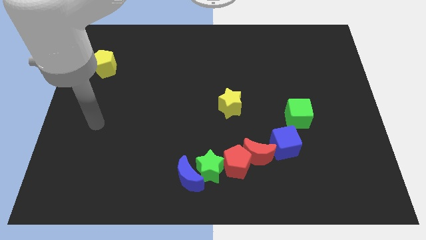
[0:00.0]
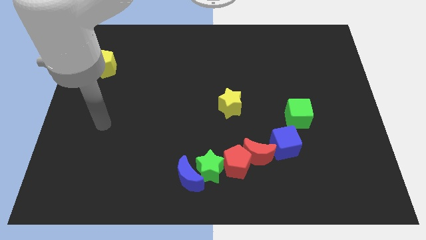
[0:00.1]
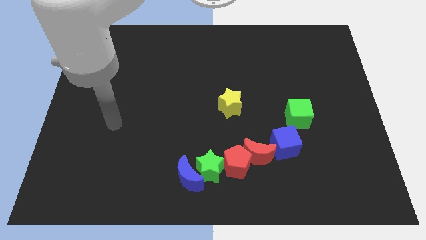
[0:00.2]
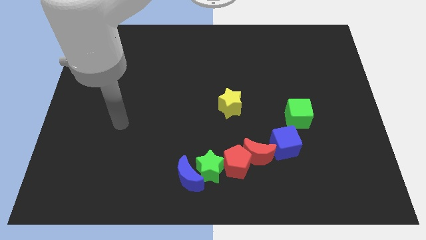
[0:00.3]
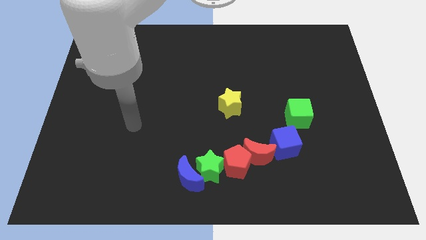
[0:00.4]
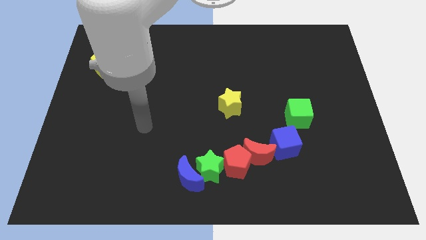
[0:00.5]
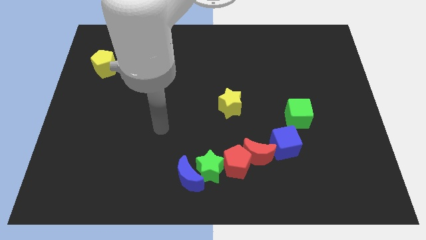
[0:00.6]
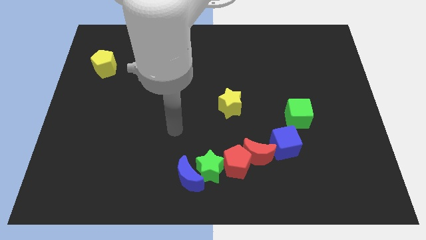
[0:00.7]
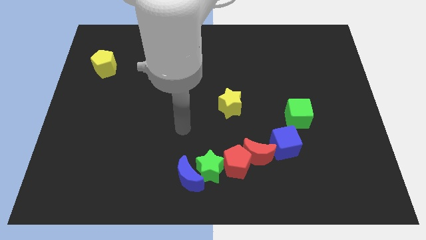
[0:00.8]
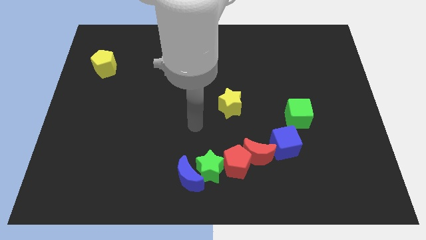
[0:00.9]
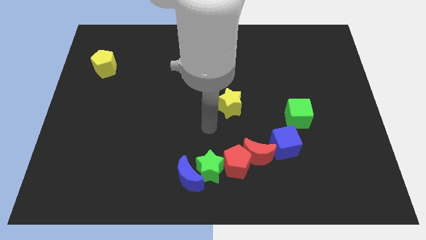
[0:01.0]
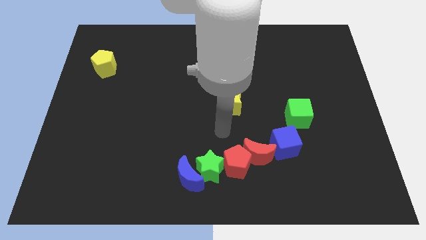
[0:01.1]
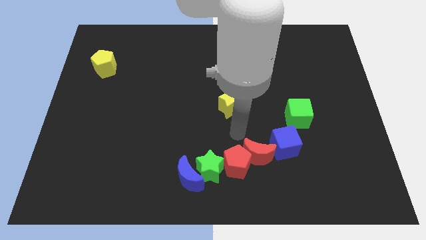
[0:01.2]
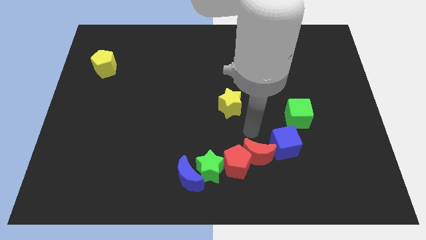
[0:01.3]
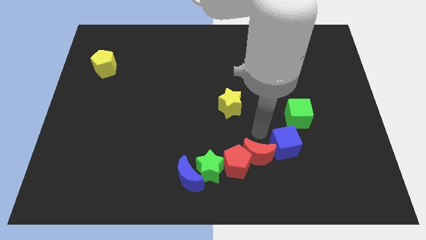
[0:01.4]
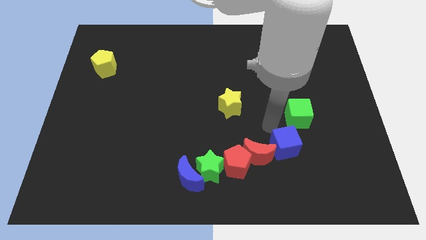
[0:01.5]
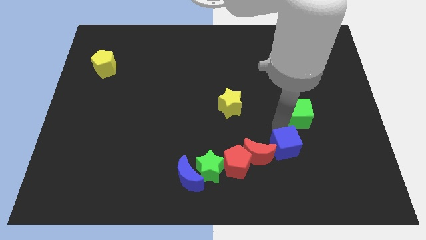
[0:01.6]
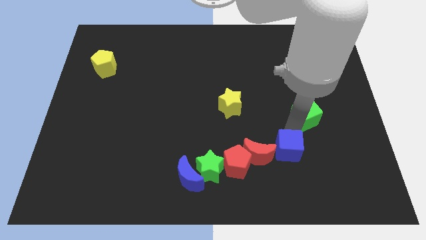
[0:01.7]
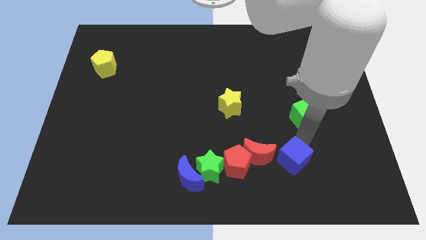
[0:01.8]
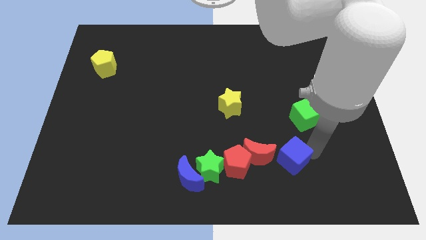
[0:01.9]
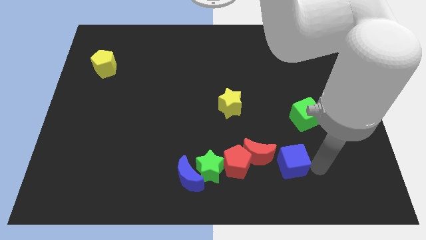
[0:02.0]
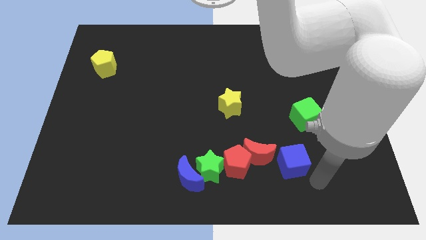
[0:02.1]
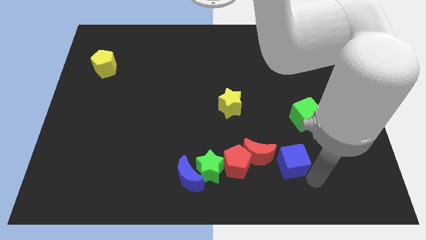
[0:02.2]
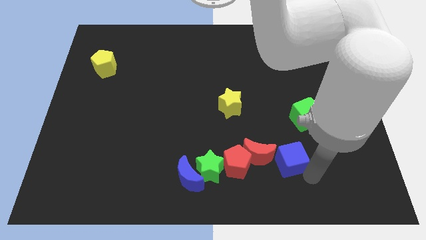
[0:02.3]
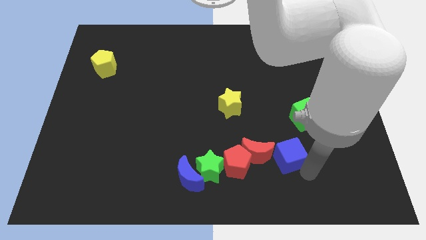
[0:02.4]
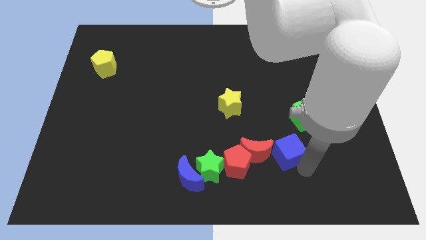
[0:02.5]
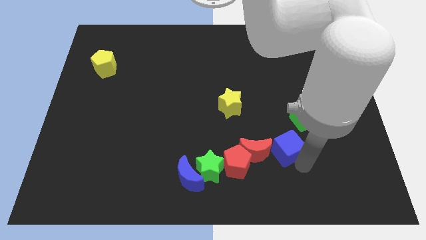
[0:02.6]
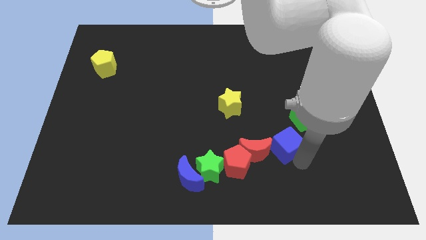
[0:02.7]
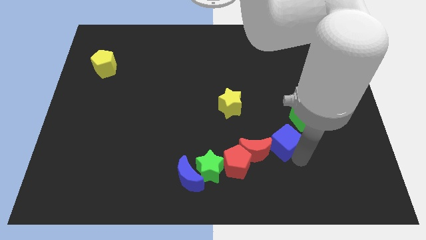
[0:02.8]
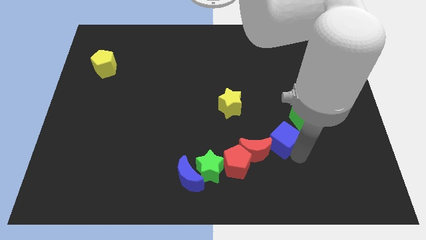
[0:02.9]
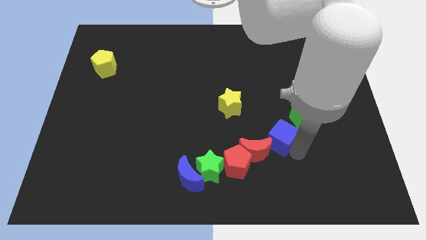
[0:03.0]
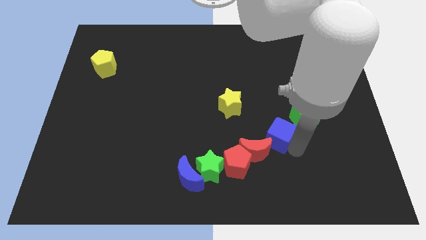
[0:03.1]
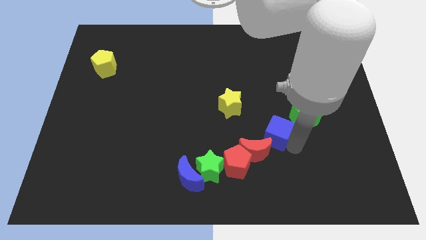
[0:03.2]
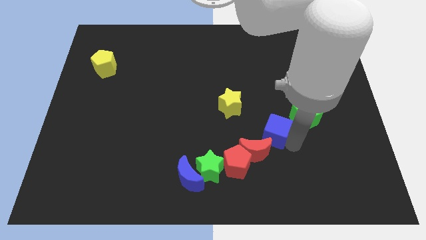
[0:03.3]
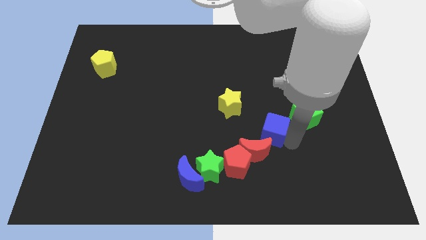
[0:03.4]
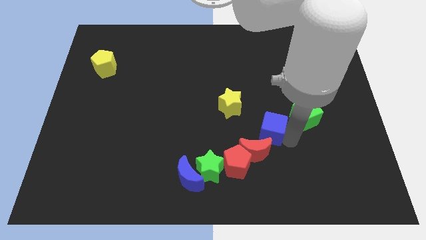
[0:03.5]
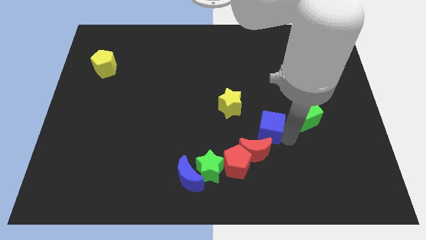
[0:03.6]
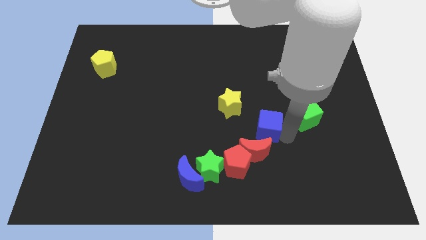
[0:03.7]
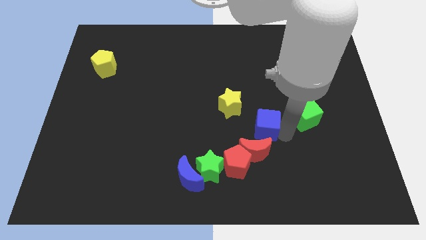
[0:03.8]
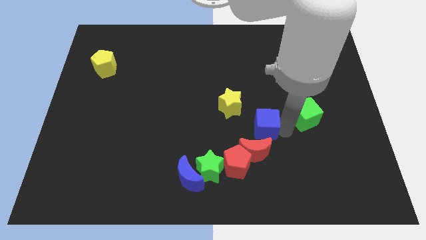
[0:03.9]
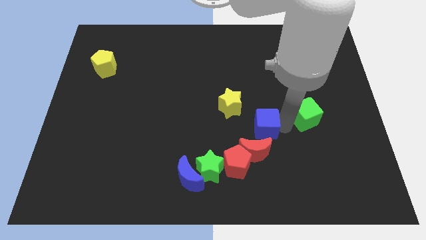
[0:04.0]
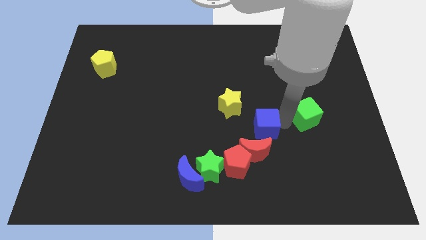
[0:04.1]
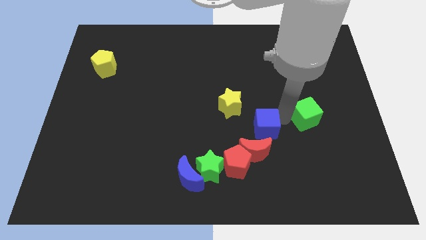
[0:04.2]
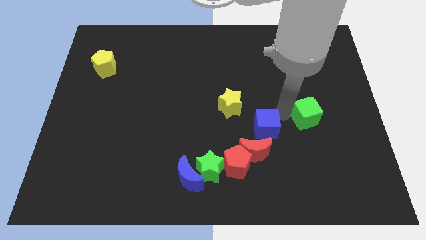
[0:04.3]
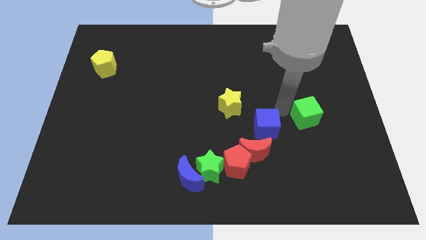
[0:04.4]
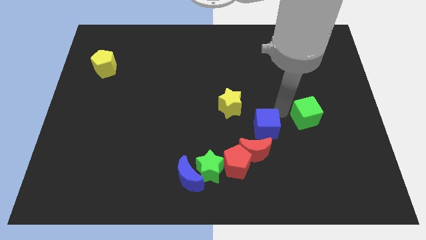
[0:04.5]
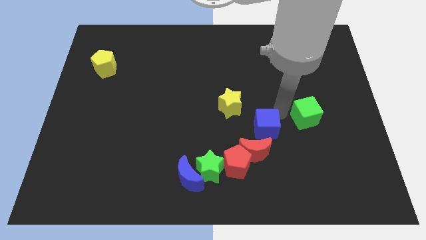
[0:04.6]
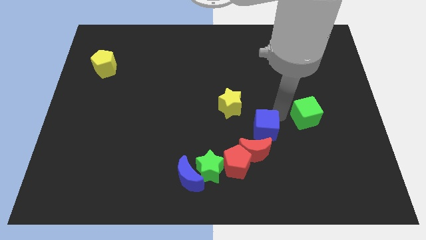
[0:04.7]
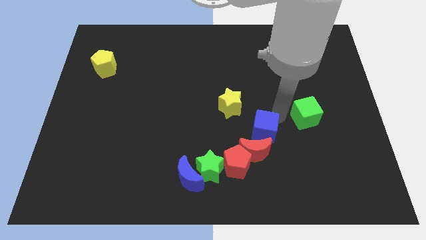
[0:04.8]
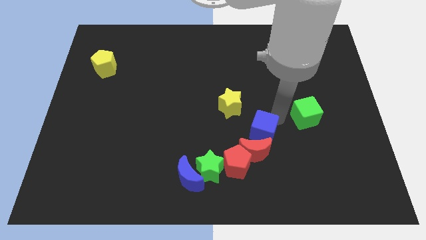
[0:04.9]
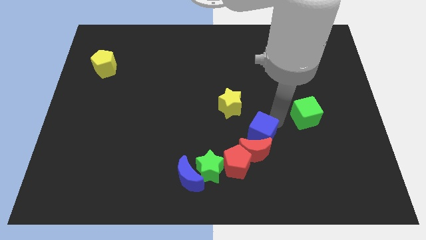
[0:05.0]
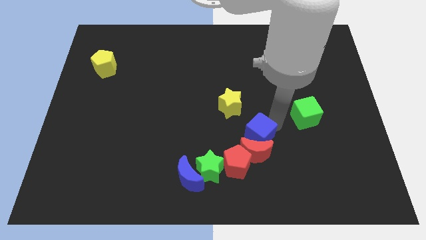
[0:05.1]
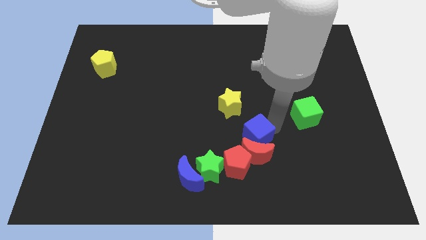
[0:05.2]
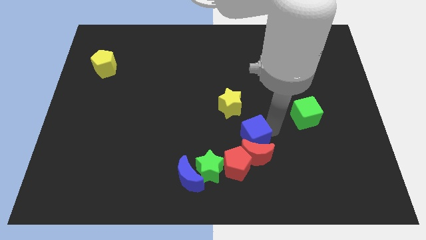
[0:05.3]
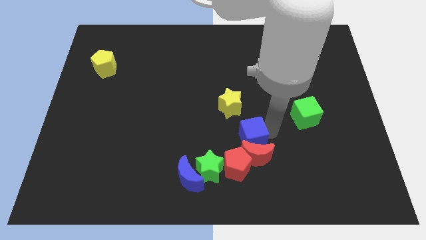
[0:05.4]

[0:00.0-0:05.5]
put the blue cube to the bottom of the yellow star

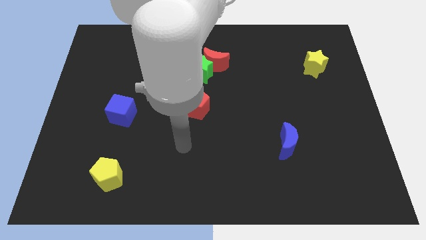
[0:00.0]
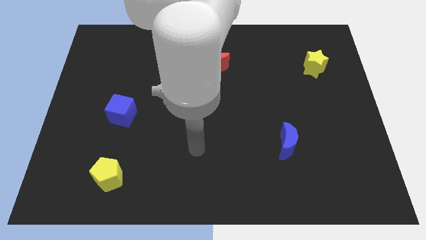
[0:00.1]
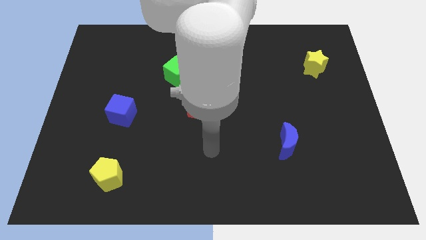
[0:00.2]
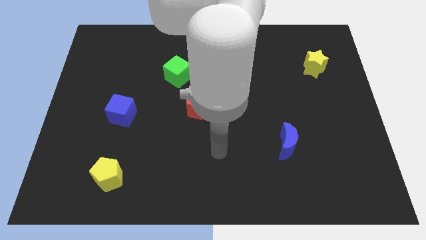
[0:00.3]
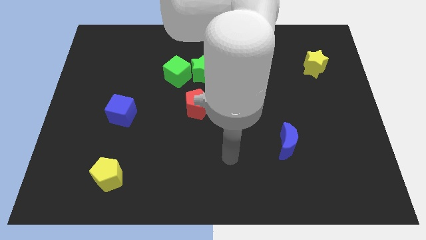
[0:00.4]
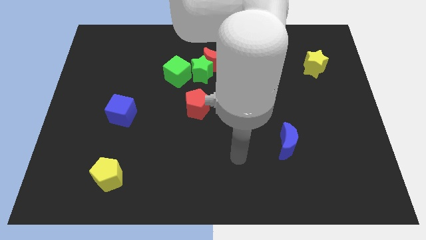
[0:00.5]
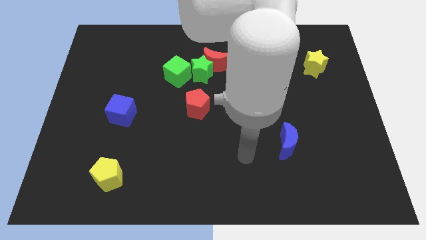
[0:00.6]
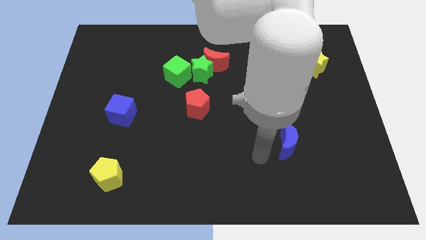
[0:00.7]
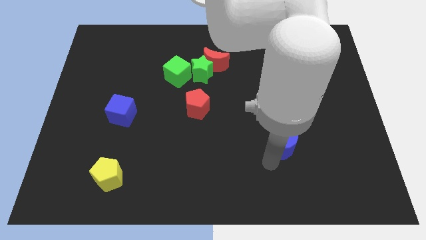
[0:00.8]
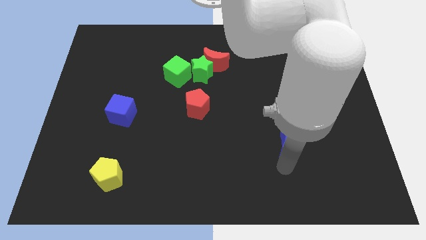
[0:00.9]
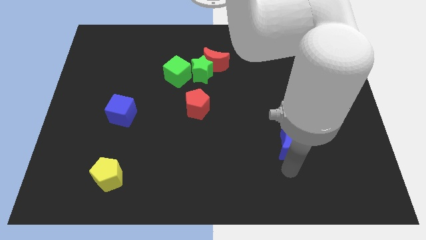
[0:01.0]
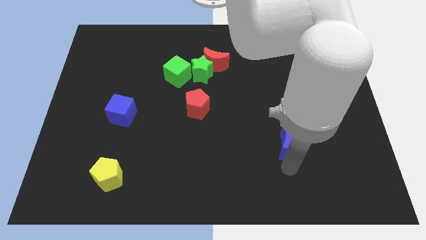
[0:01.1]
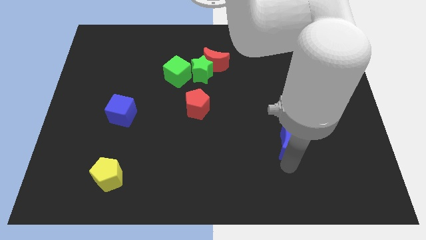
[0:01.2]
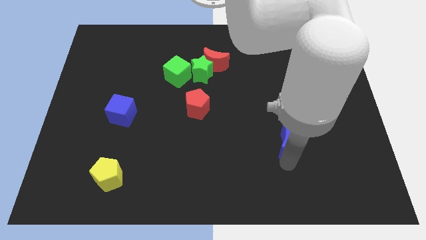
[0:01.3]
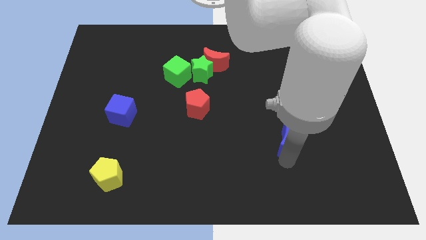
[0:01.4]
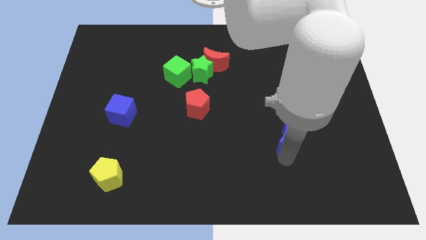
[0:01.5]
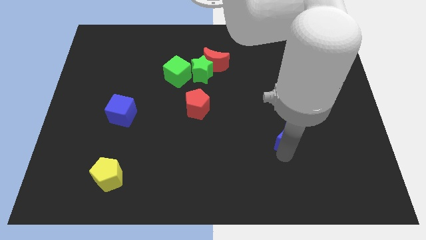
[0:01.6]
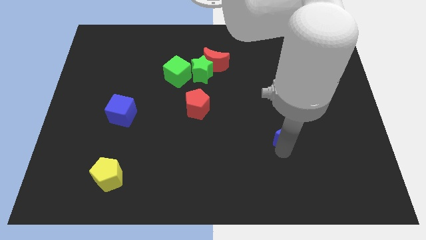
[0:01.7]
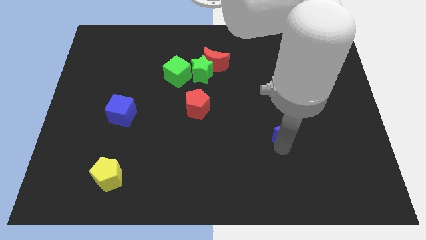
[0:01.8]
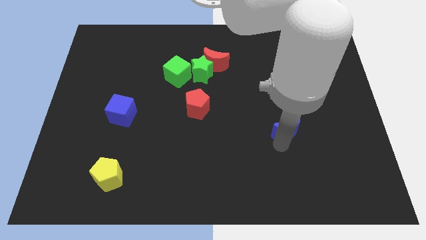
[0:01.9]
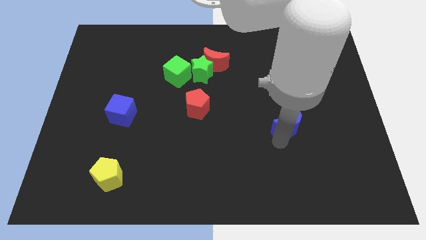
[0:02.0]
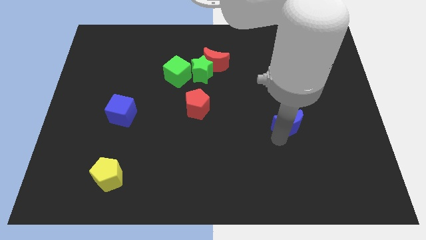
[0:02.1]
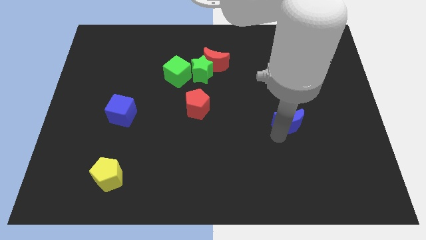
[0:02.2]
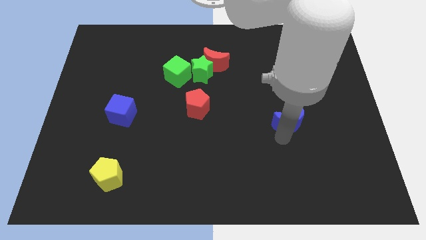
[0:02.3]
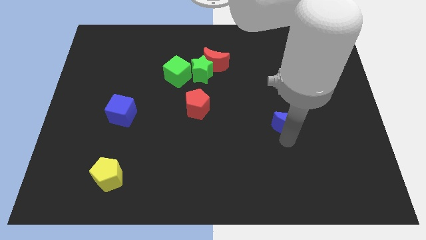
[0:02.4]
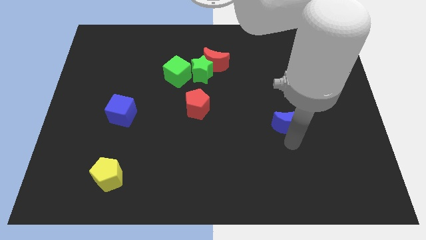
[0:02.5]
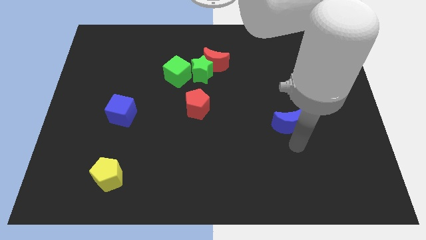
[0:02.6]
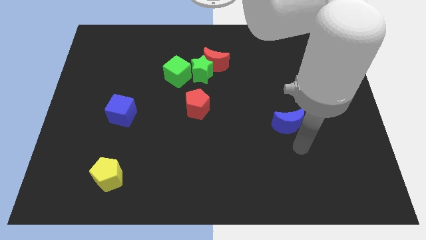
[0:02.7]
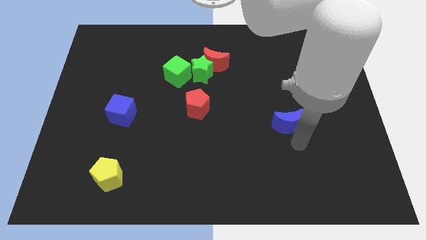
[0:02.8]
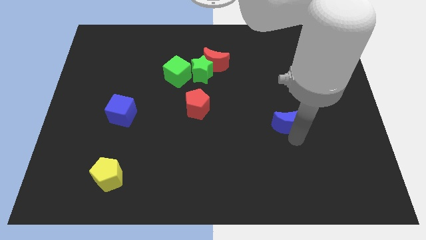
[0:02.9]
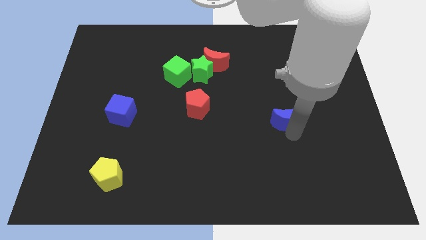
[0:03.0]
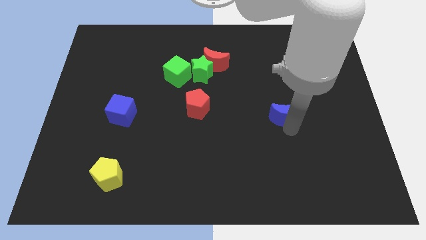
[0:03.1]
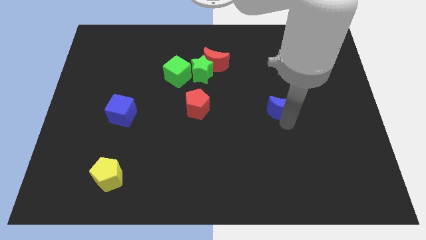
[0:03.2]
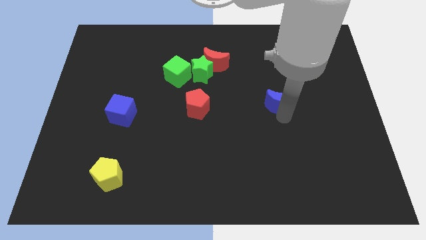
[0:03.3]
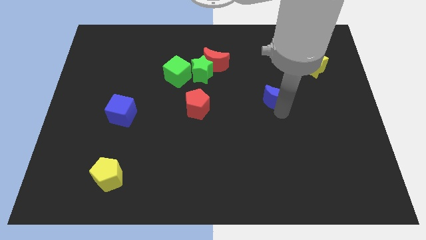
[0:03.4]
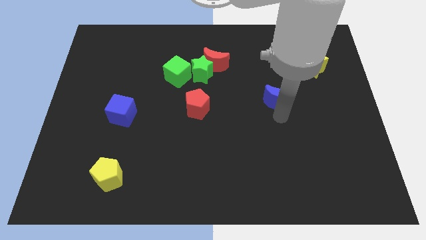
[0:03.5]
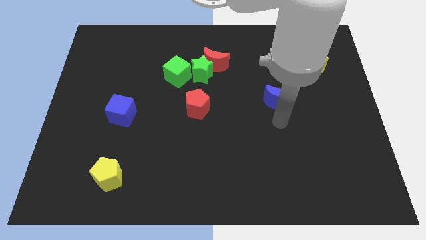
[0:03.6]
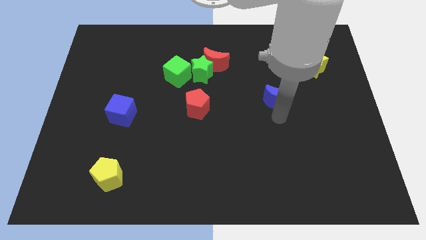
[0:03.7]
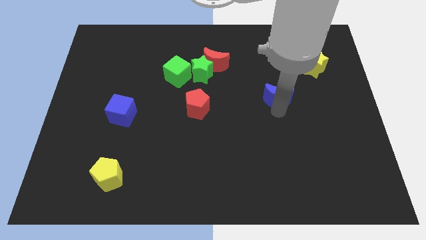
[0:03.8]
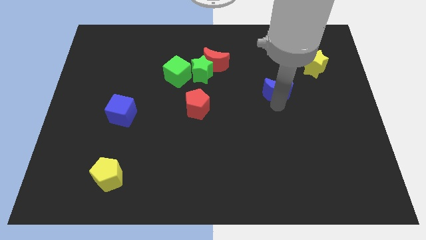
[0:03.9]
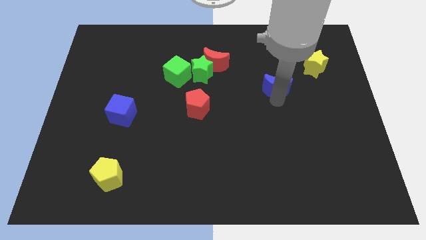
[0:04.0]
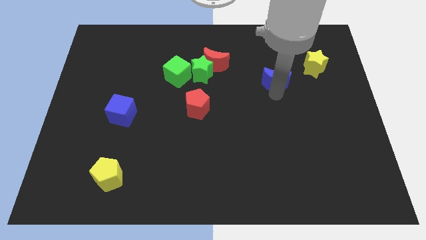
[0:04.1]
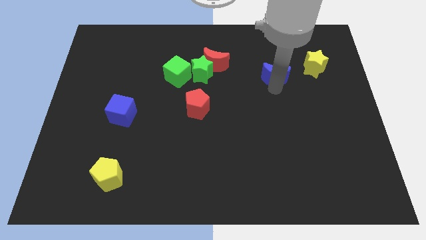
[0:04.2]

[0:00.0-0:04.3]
push the blue moon to the left of the yellow star
